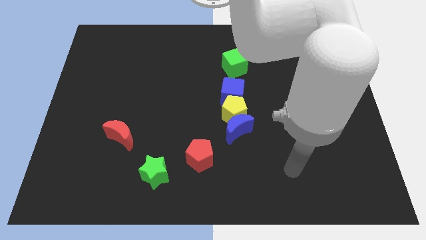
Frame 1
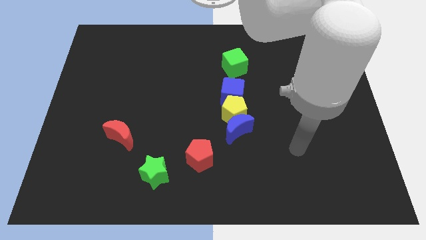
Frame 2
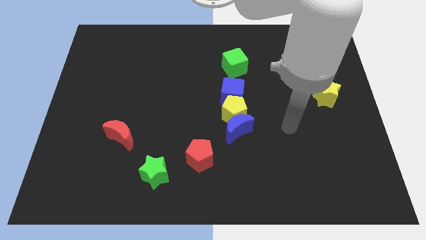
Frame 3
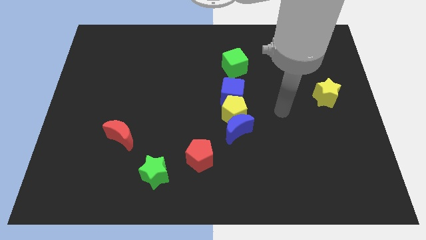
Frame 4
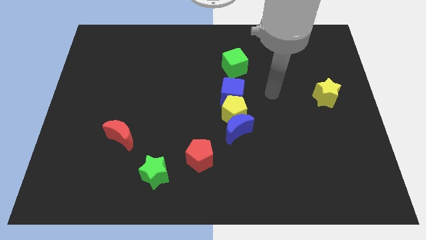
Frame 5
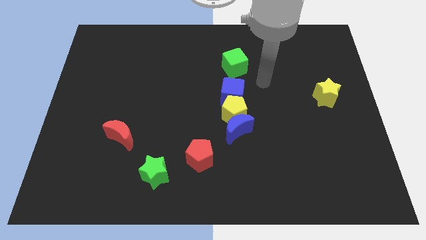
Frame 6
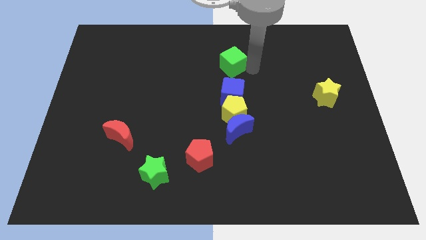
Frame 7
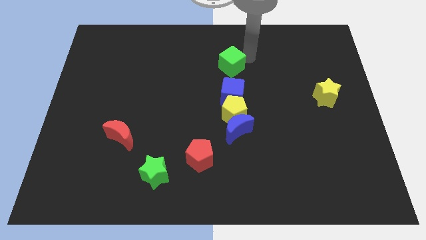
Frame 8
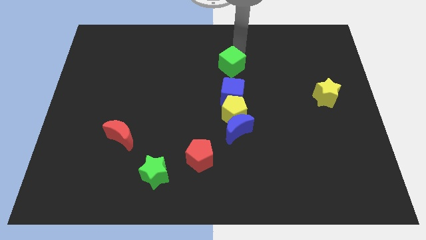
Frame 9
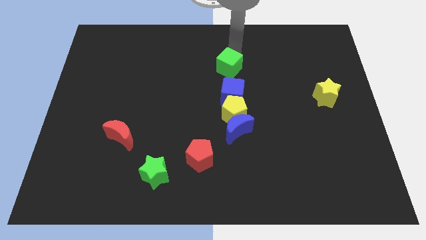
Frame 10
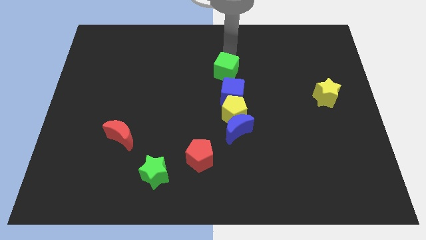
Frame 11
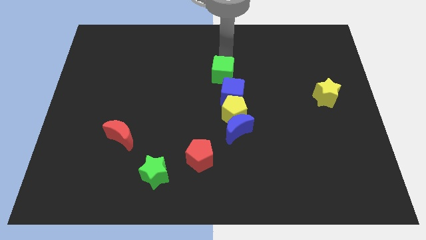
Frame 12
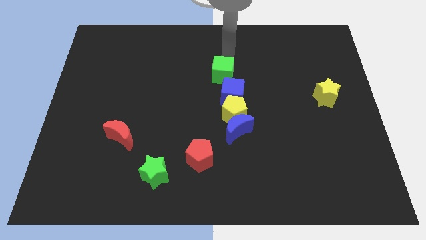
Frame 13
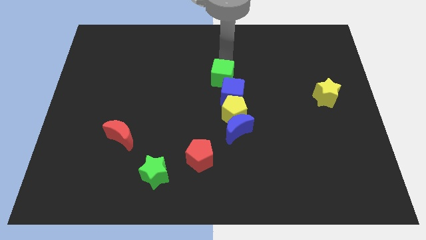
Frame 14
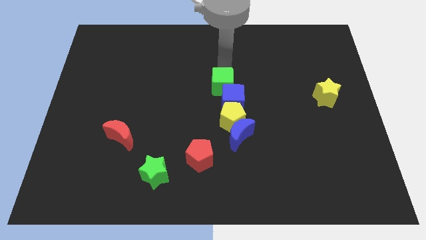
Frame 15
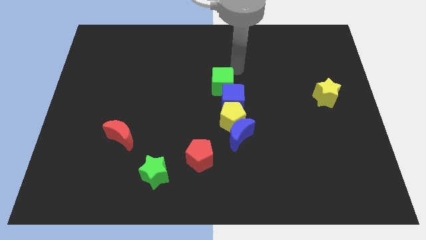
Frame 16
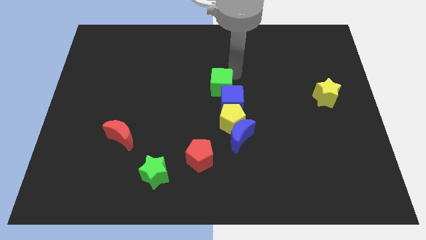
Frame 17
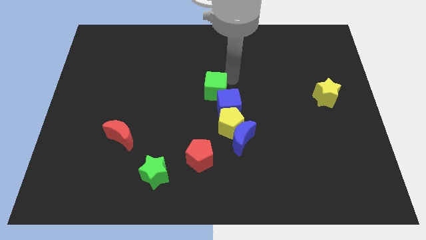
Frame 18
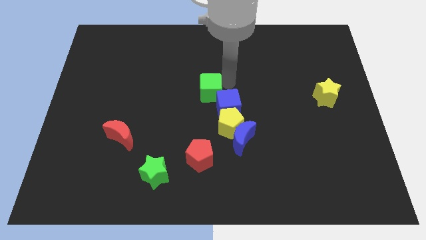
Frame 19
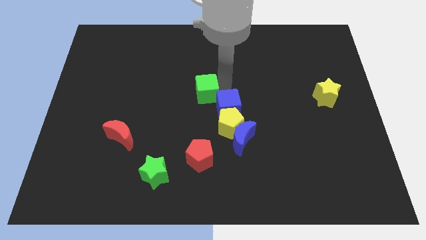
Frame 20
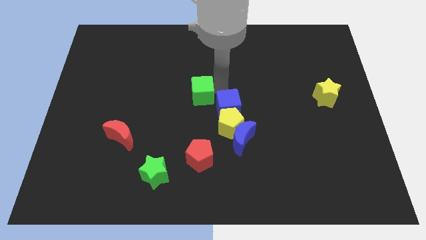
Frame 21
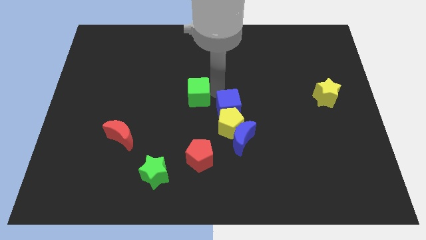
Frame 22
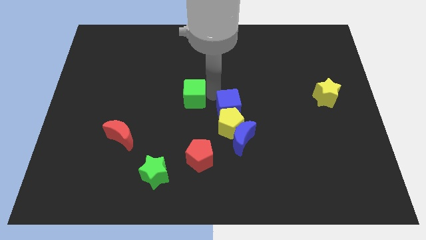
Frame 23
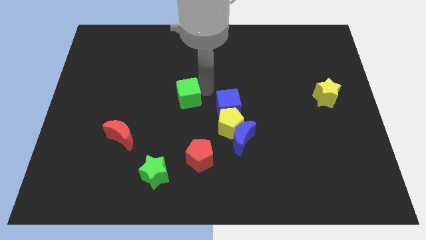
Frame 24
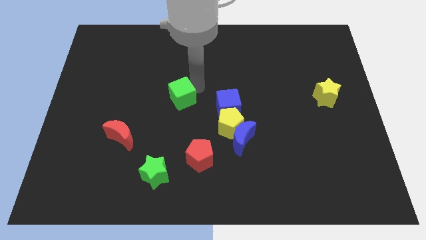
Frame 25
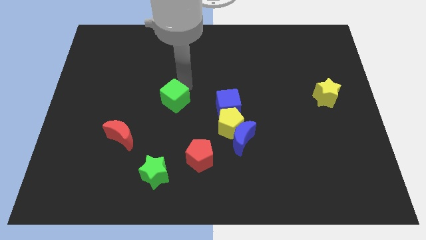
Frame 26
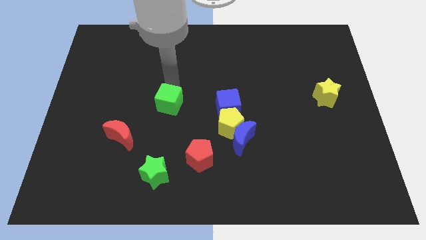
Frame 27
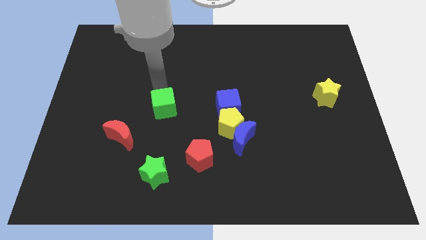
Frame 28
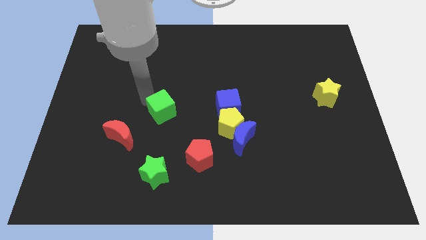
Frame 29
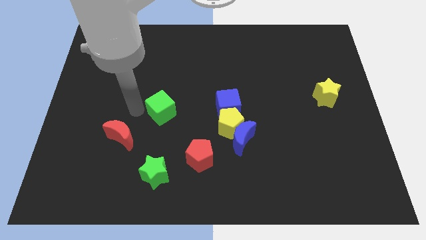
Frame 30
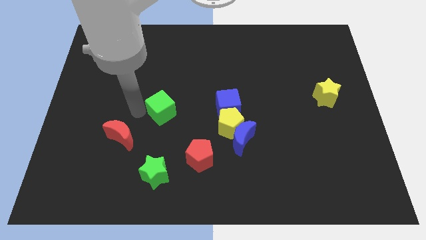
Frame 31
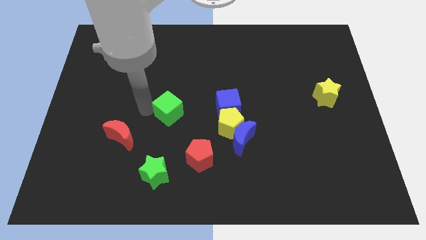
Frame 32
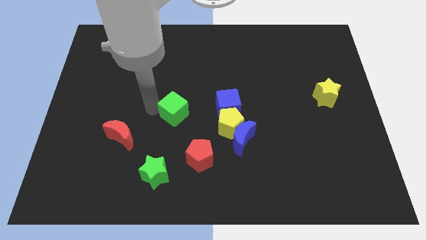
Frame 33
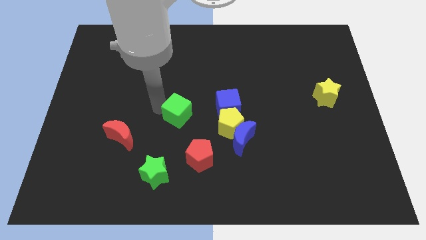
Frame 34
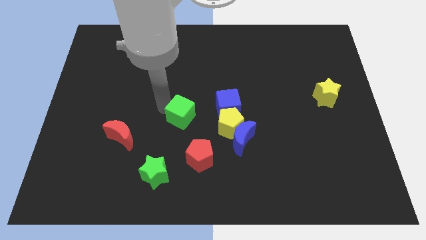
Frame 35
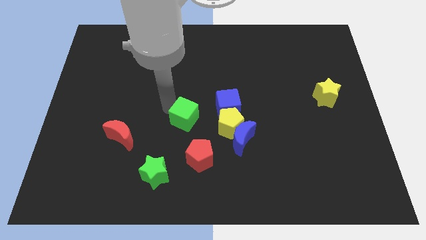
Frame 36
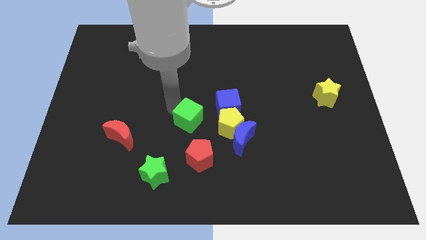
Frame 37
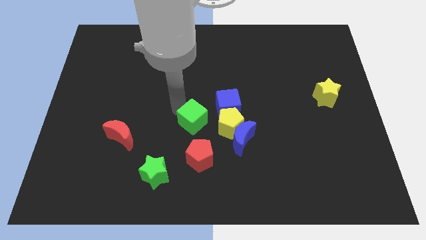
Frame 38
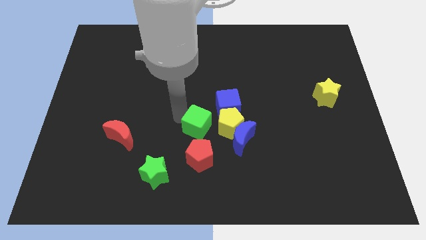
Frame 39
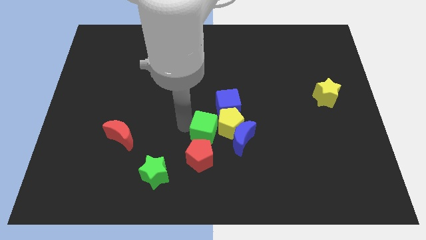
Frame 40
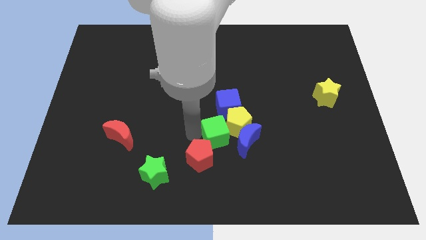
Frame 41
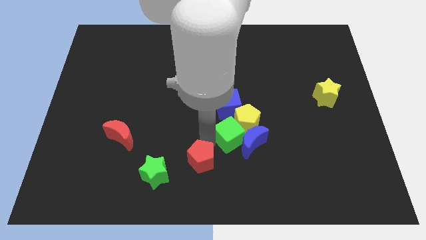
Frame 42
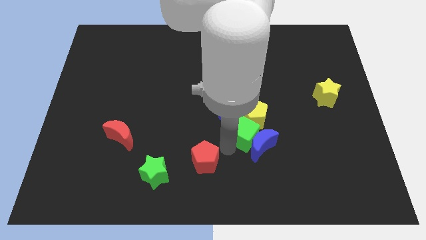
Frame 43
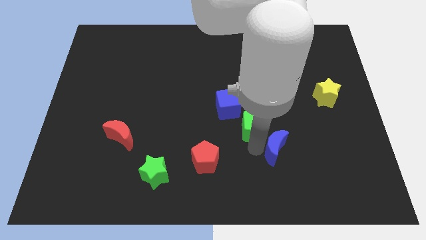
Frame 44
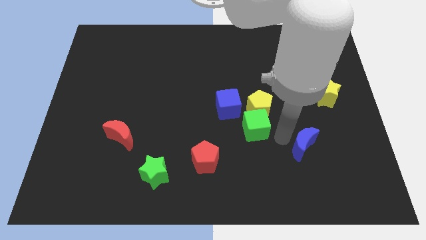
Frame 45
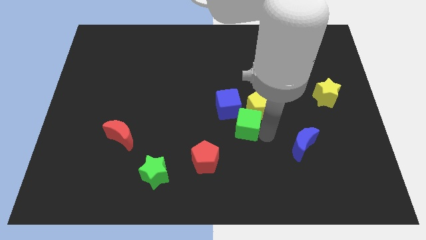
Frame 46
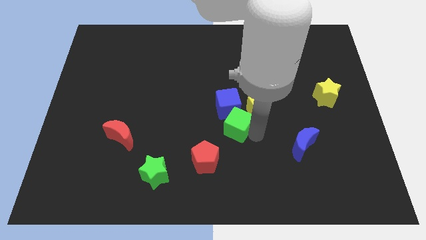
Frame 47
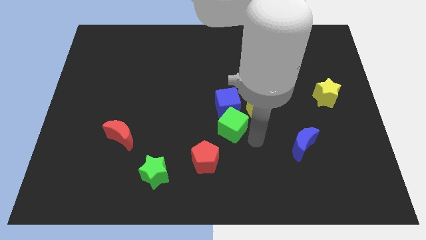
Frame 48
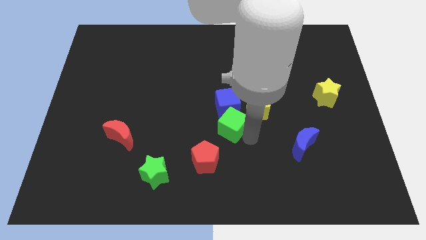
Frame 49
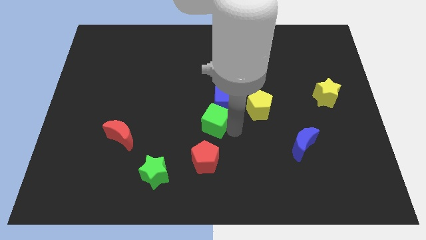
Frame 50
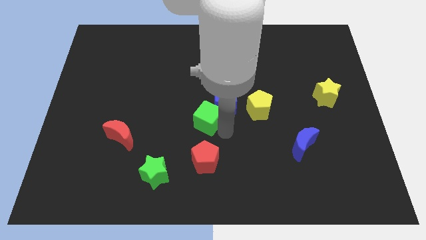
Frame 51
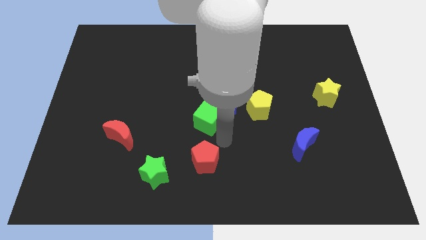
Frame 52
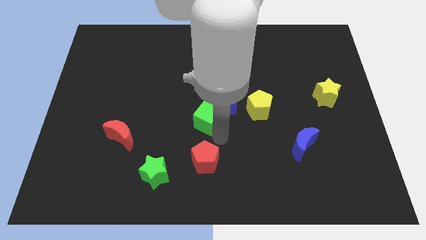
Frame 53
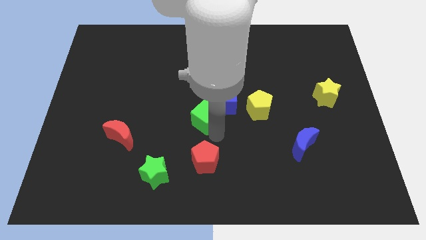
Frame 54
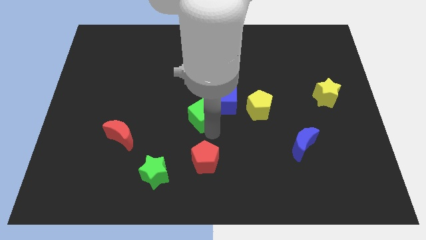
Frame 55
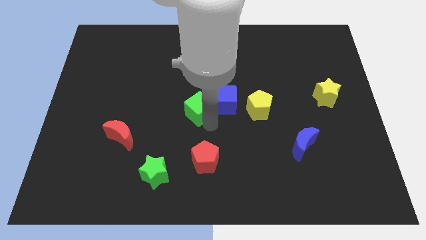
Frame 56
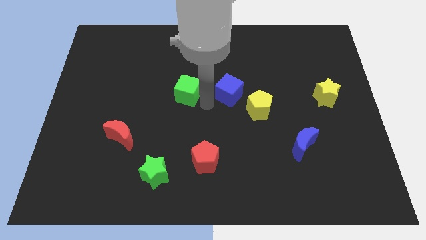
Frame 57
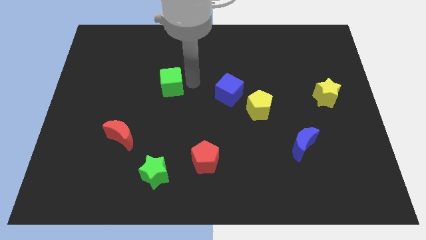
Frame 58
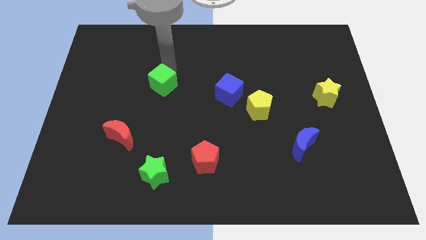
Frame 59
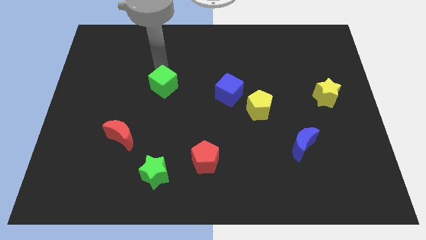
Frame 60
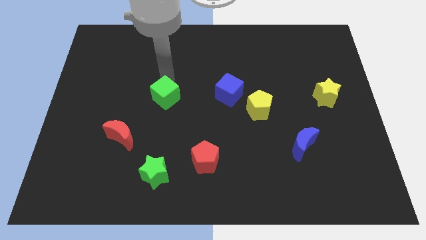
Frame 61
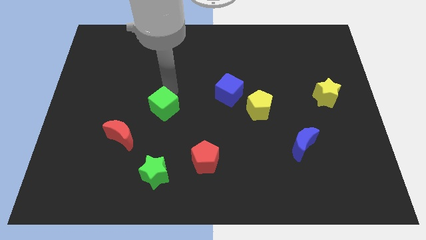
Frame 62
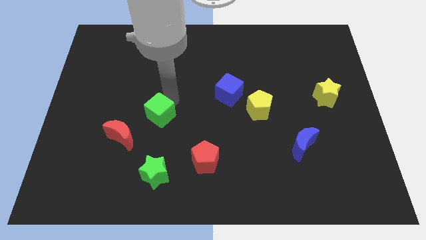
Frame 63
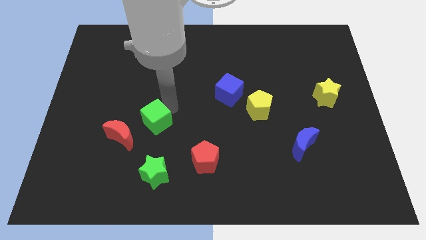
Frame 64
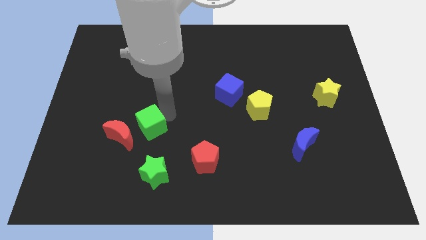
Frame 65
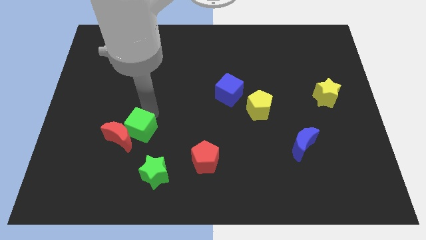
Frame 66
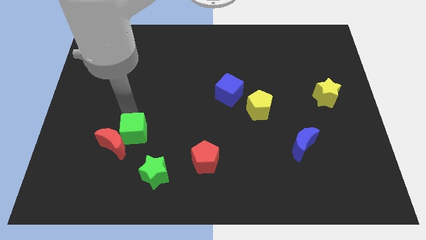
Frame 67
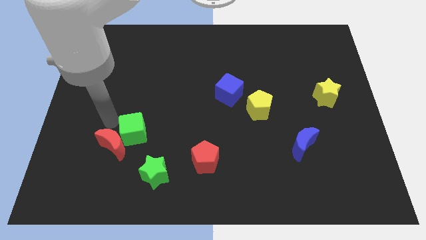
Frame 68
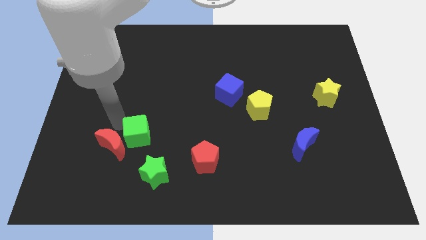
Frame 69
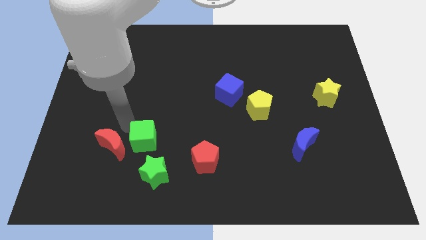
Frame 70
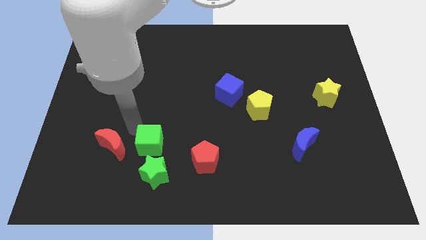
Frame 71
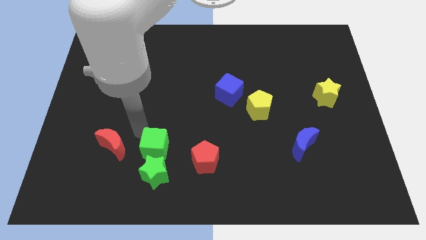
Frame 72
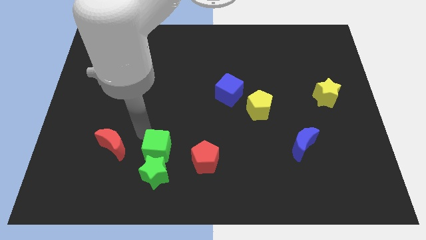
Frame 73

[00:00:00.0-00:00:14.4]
move the green cube to the top right side of the green star
